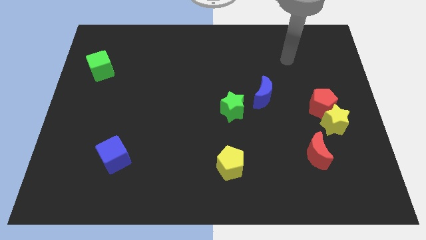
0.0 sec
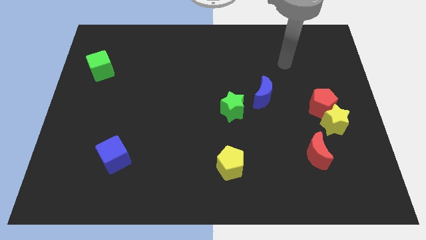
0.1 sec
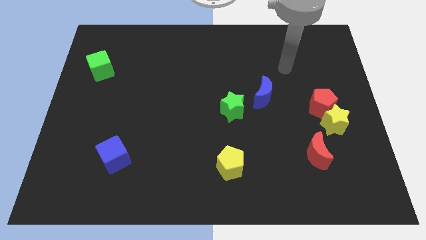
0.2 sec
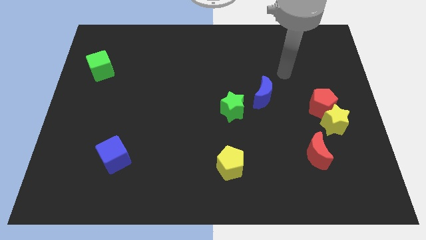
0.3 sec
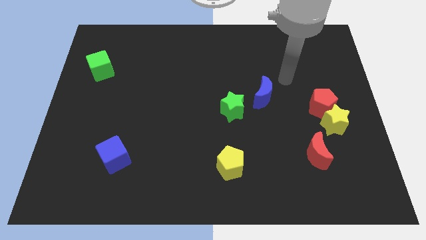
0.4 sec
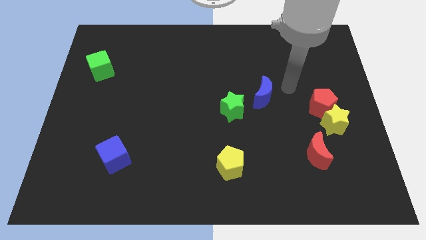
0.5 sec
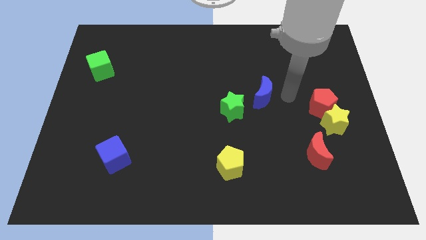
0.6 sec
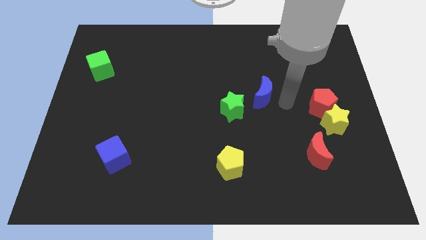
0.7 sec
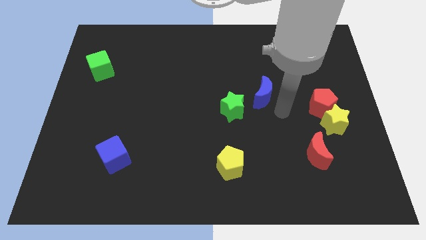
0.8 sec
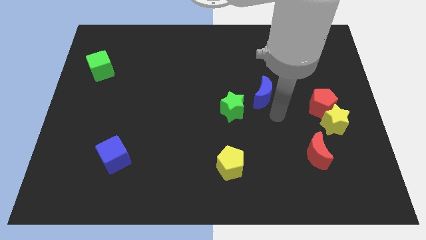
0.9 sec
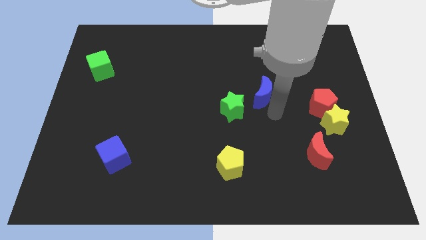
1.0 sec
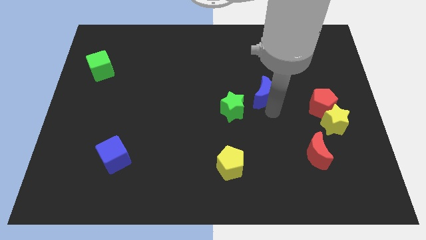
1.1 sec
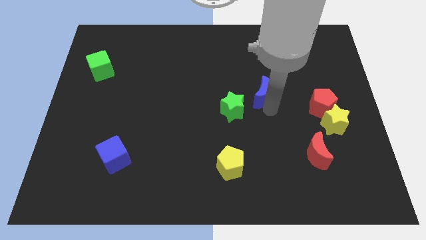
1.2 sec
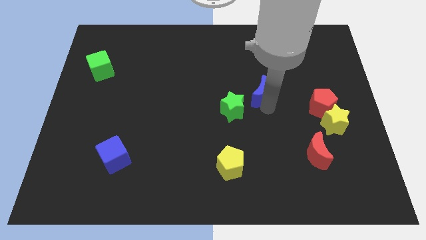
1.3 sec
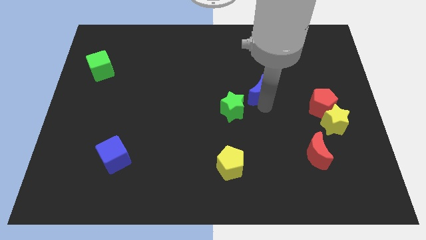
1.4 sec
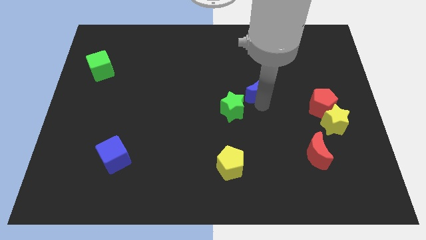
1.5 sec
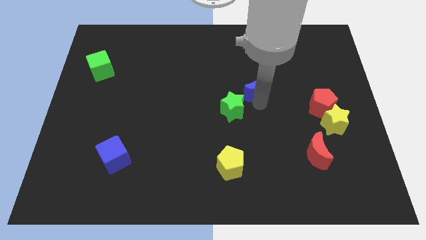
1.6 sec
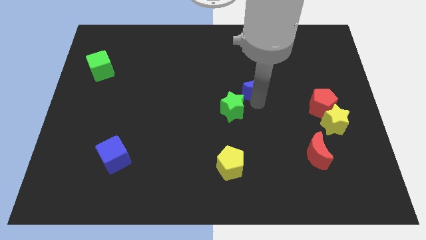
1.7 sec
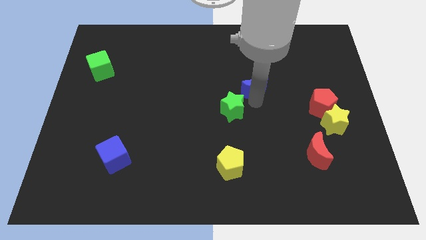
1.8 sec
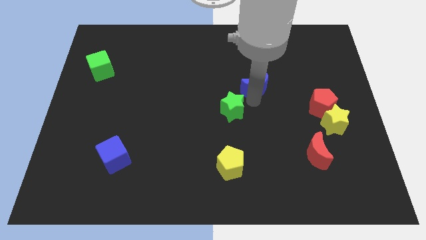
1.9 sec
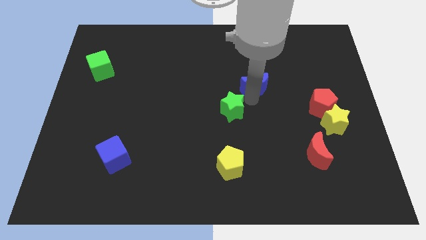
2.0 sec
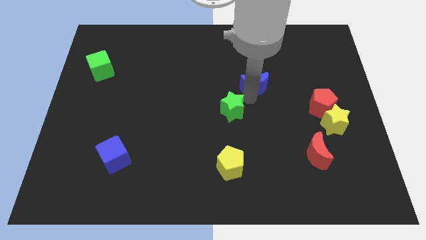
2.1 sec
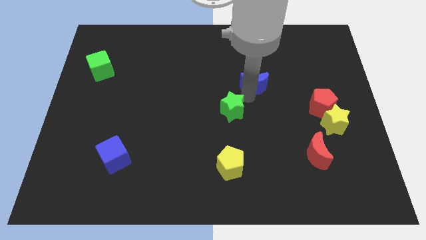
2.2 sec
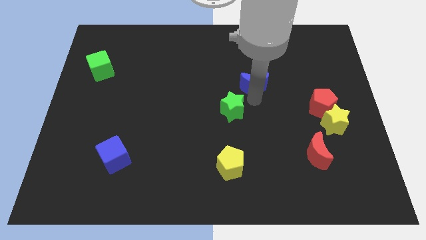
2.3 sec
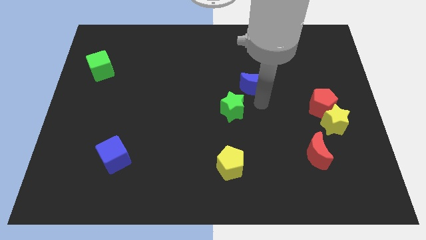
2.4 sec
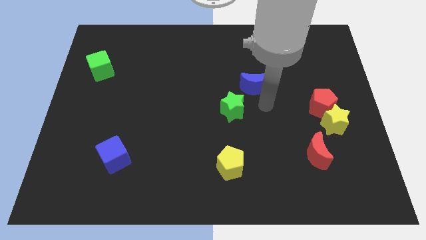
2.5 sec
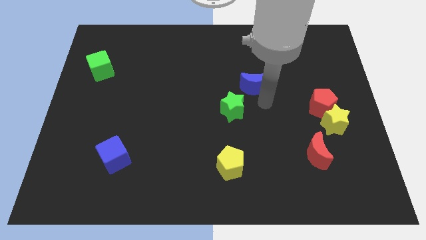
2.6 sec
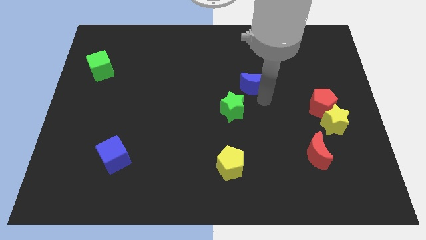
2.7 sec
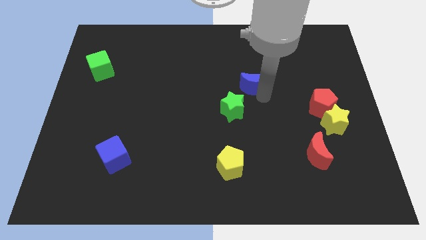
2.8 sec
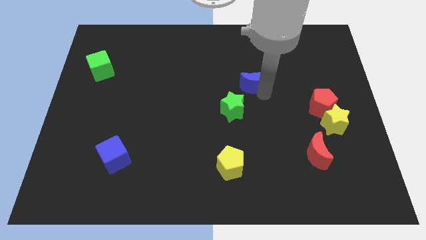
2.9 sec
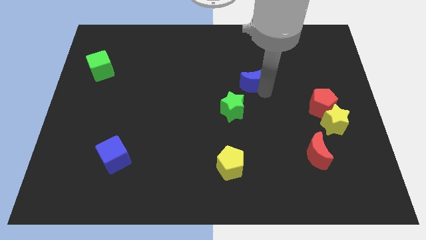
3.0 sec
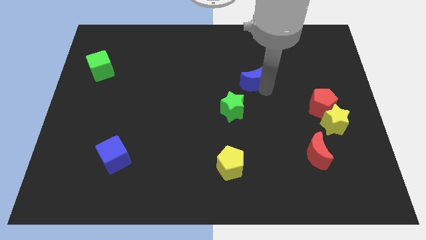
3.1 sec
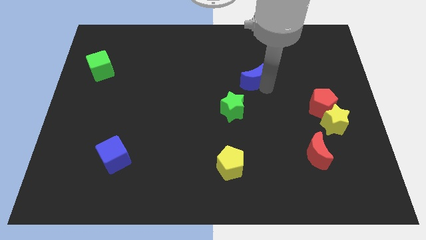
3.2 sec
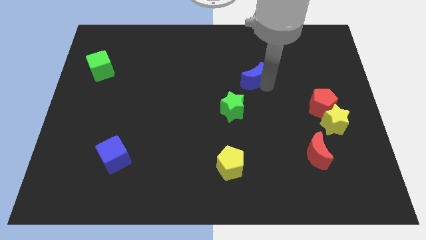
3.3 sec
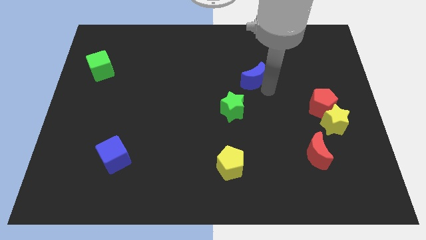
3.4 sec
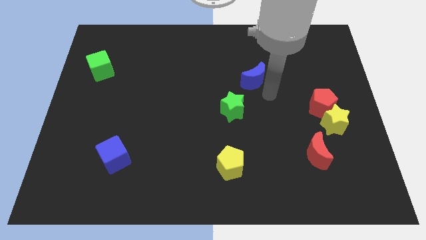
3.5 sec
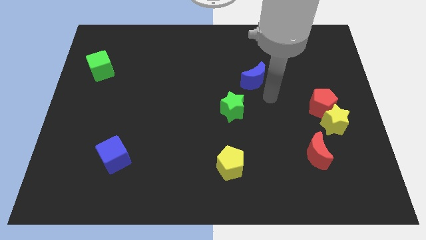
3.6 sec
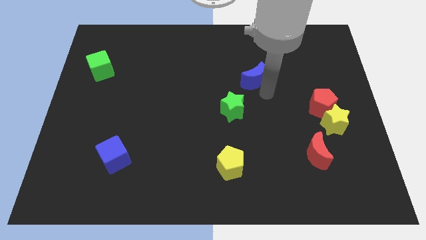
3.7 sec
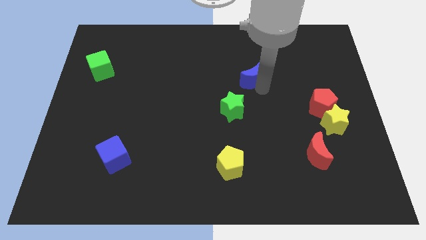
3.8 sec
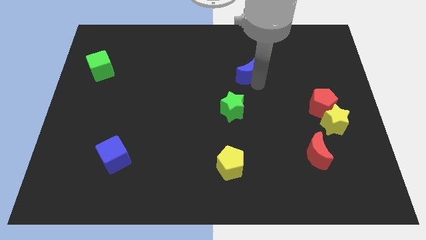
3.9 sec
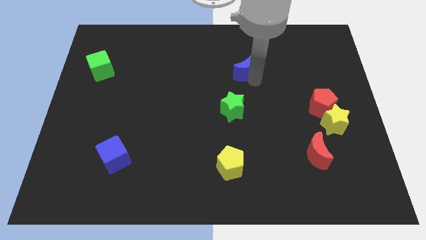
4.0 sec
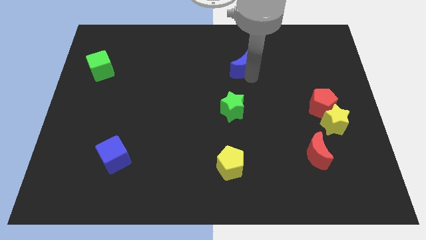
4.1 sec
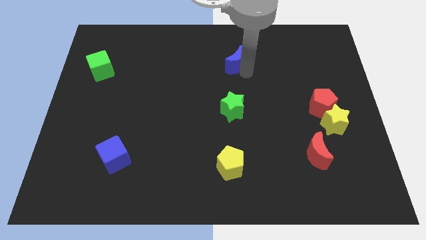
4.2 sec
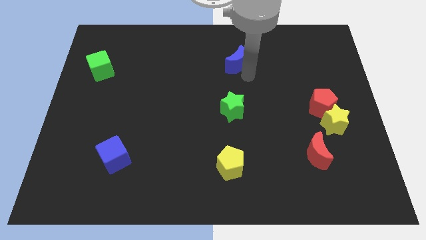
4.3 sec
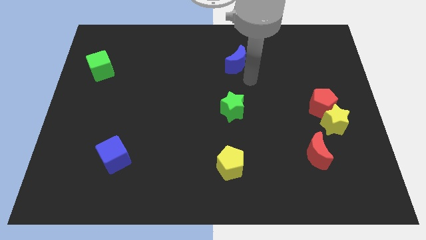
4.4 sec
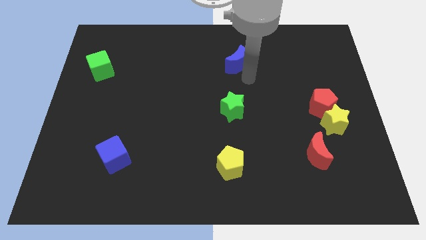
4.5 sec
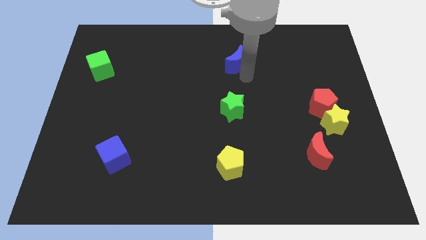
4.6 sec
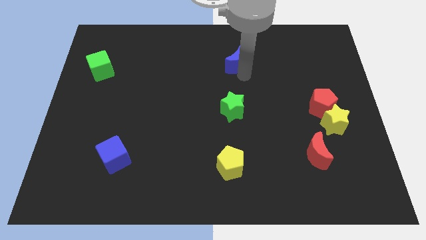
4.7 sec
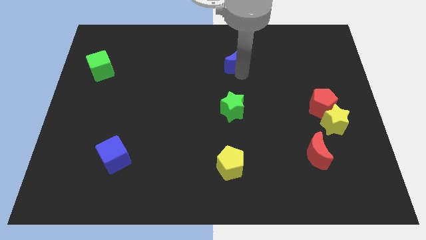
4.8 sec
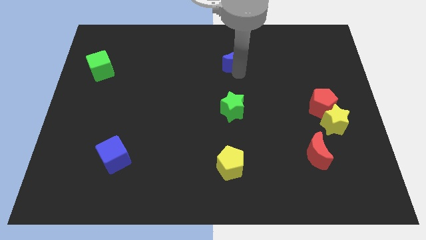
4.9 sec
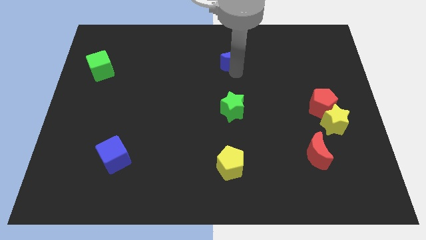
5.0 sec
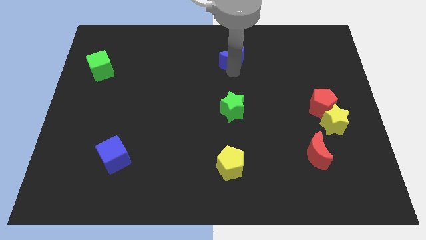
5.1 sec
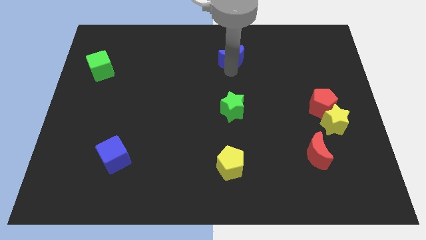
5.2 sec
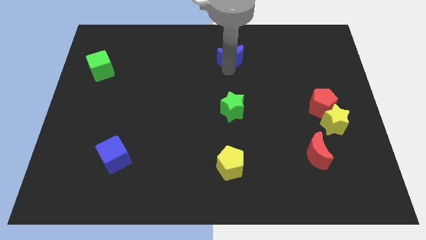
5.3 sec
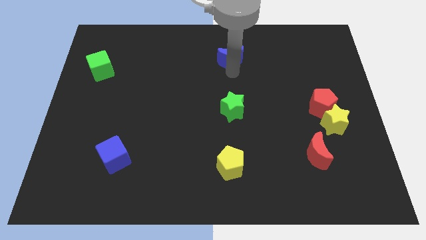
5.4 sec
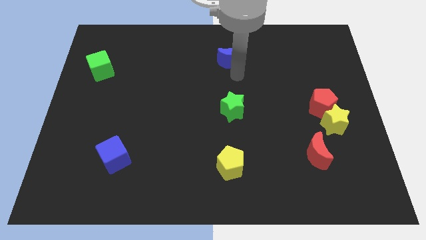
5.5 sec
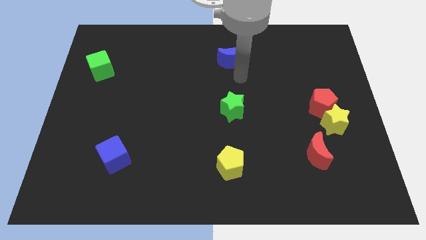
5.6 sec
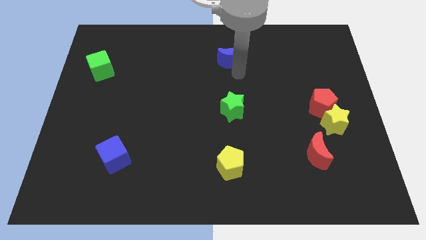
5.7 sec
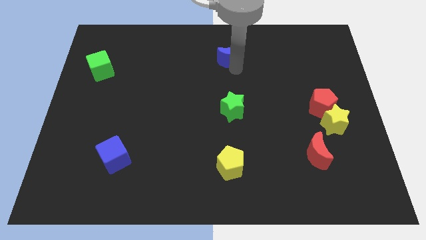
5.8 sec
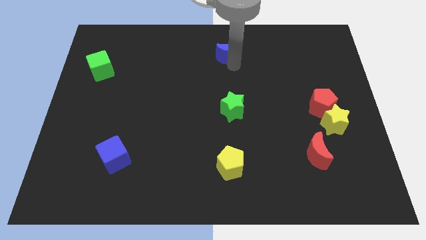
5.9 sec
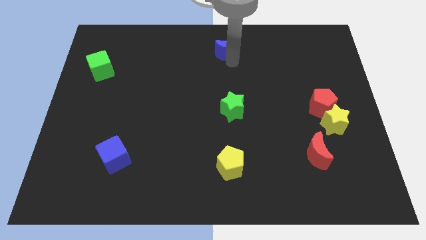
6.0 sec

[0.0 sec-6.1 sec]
slide the blue moon to the top
